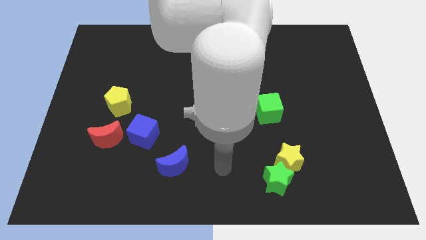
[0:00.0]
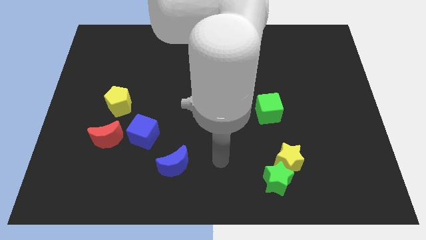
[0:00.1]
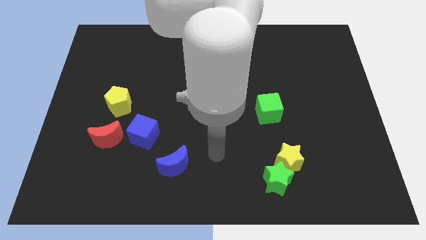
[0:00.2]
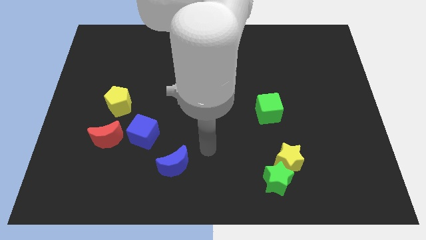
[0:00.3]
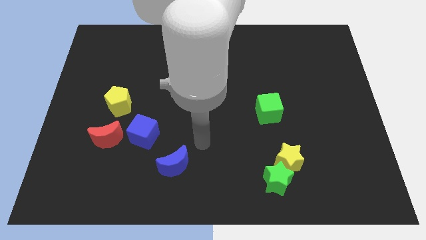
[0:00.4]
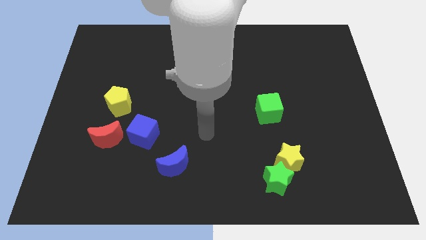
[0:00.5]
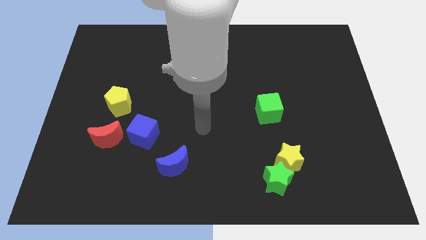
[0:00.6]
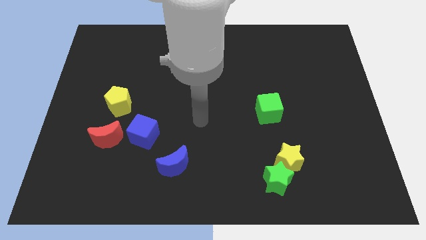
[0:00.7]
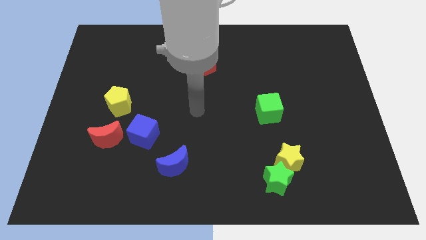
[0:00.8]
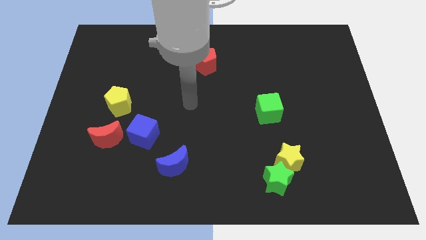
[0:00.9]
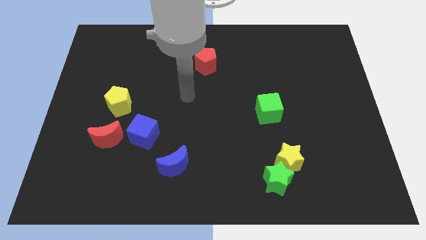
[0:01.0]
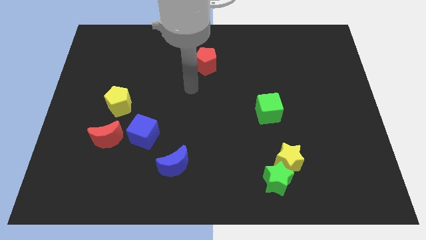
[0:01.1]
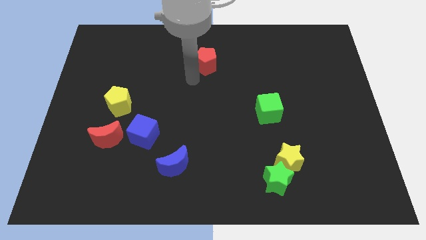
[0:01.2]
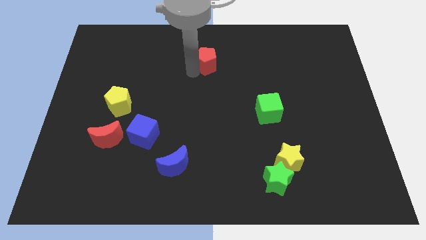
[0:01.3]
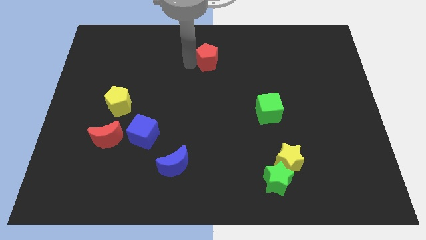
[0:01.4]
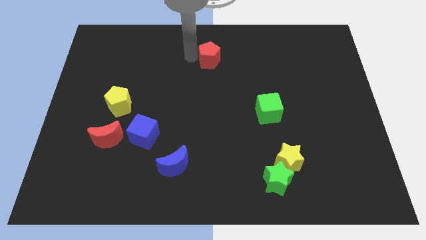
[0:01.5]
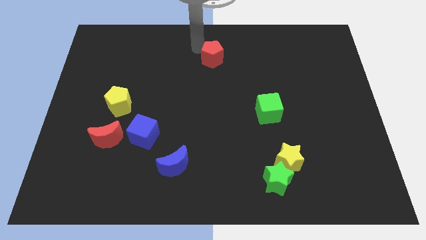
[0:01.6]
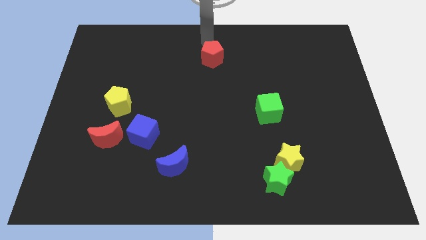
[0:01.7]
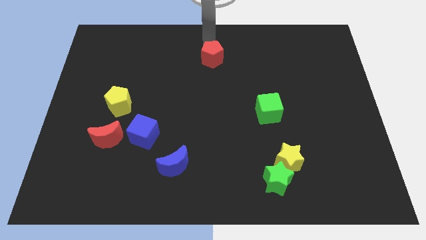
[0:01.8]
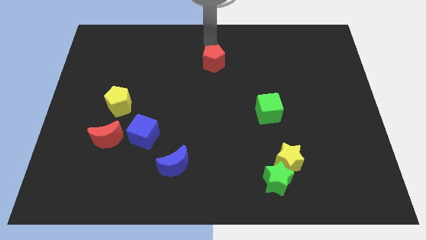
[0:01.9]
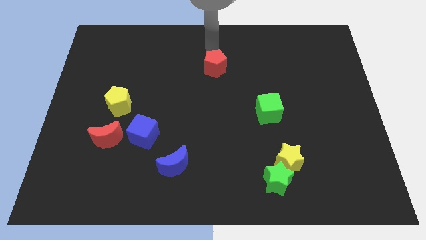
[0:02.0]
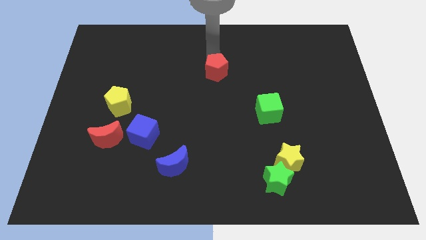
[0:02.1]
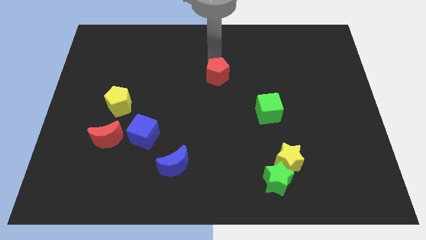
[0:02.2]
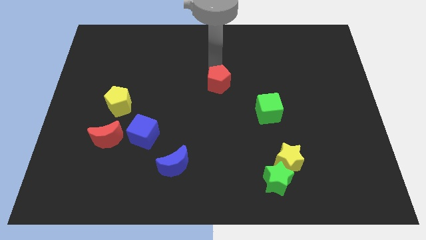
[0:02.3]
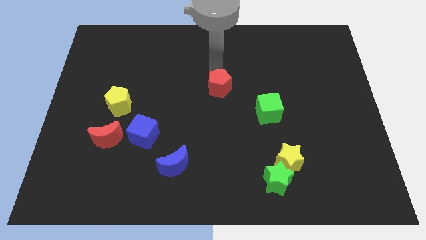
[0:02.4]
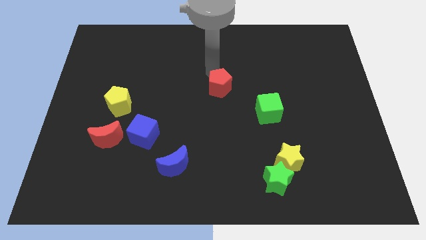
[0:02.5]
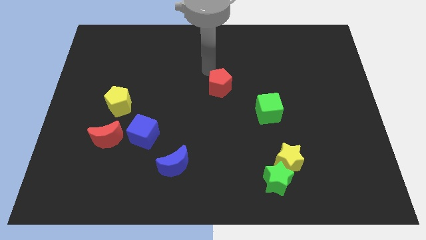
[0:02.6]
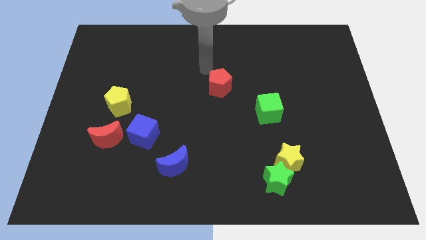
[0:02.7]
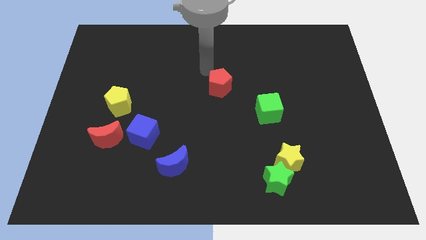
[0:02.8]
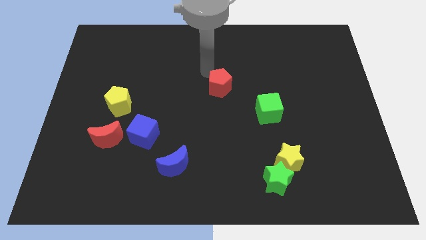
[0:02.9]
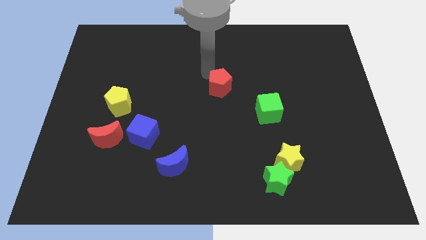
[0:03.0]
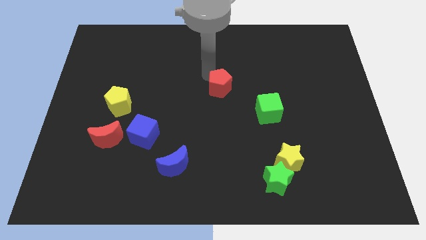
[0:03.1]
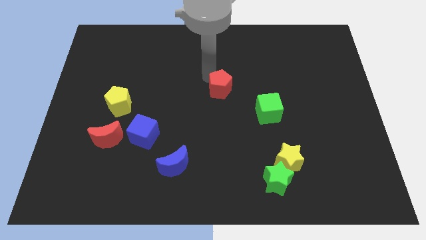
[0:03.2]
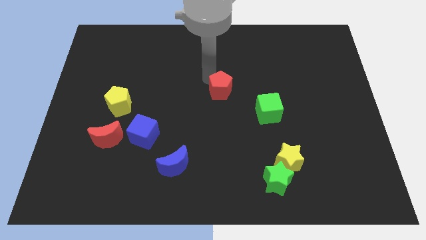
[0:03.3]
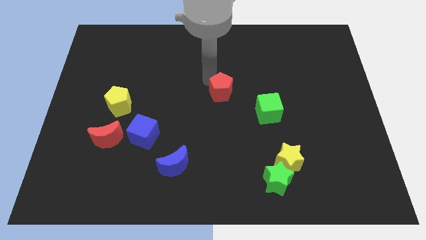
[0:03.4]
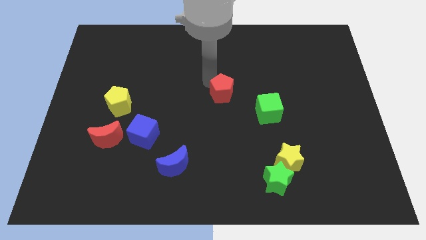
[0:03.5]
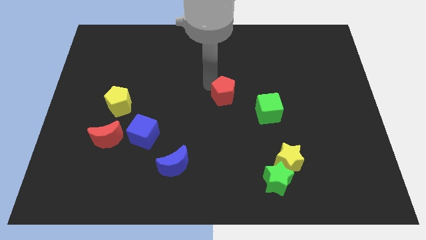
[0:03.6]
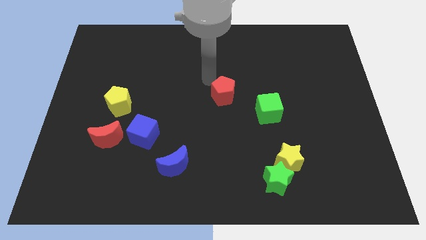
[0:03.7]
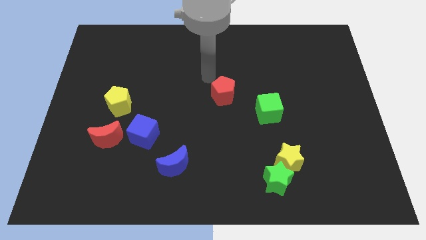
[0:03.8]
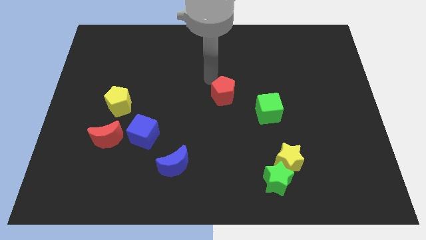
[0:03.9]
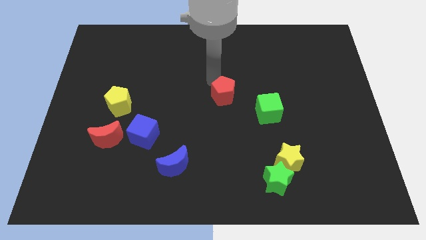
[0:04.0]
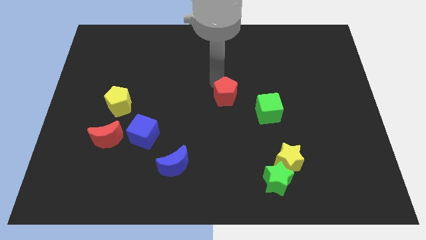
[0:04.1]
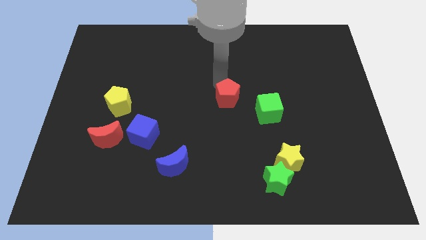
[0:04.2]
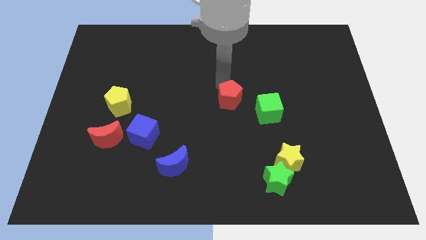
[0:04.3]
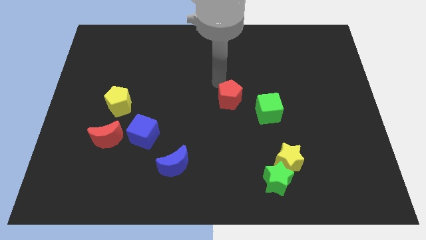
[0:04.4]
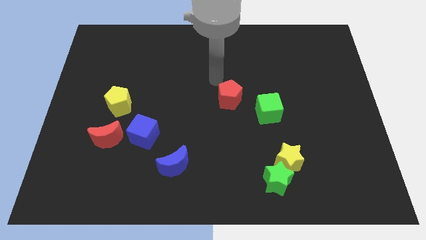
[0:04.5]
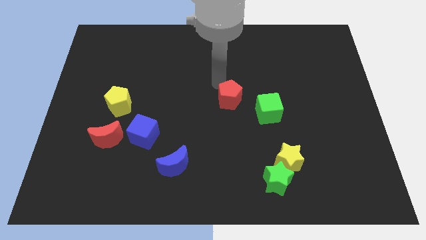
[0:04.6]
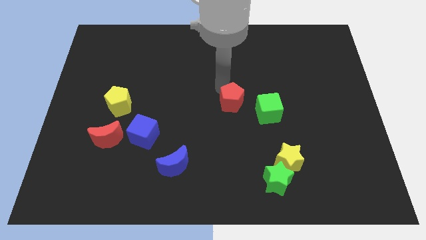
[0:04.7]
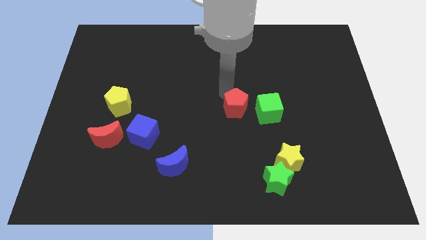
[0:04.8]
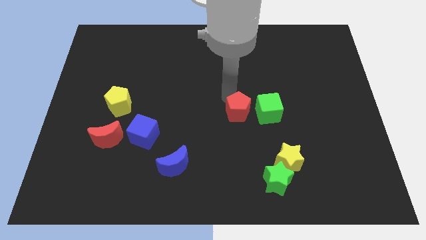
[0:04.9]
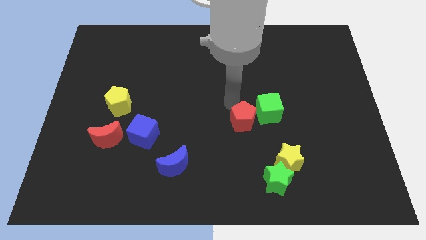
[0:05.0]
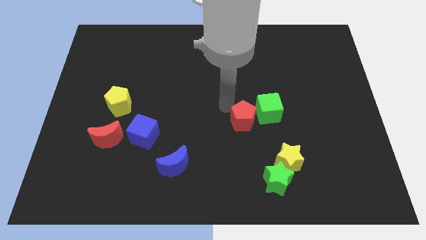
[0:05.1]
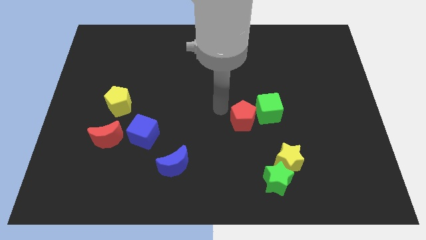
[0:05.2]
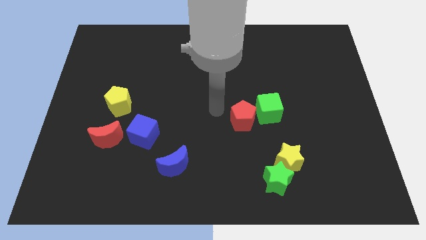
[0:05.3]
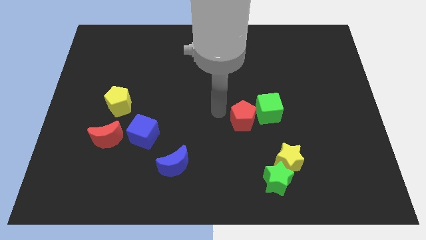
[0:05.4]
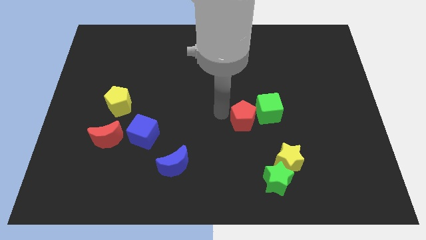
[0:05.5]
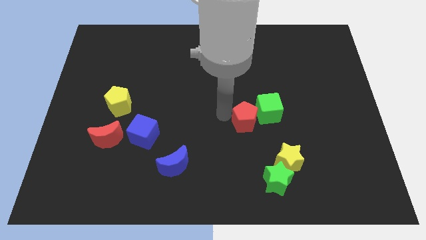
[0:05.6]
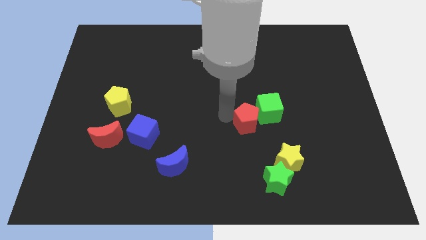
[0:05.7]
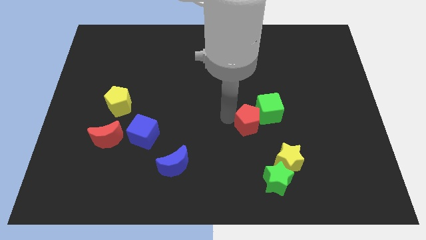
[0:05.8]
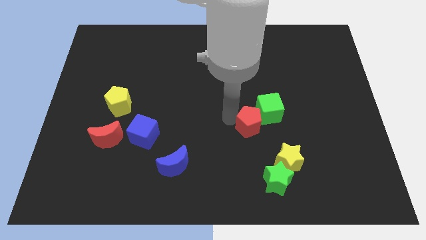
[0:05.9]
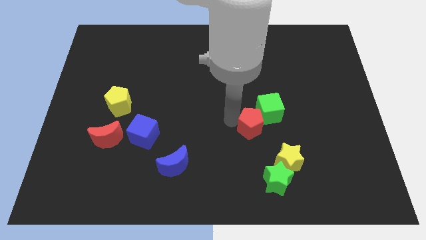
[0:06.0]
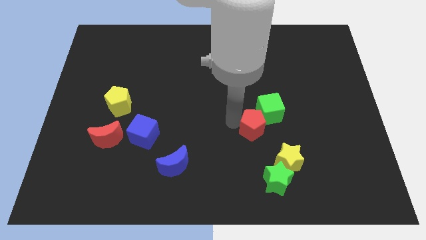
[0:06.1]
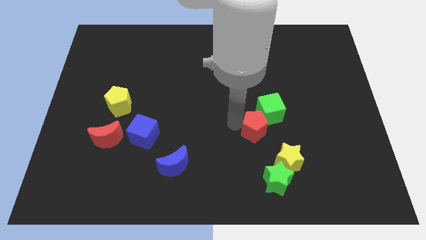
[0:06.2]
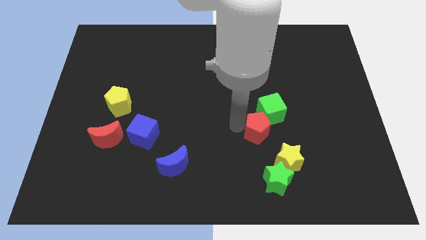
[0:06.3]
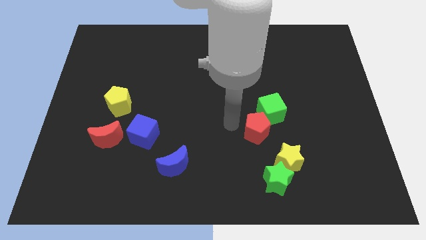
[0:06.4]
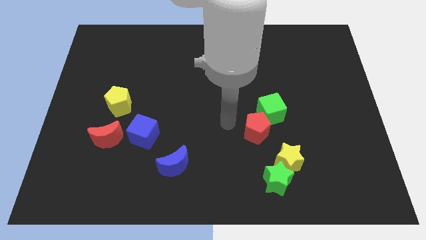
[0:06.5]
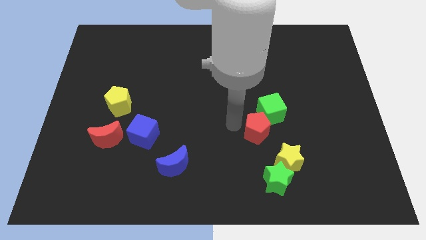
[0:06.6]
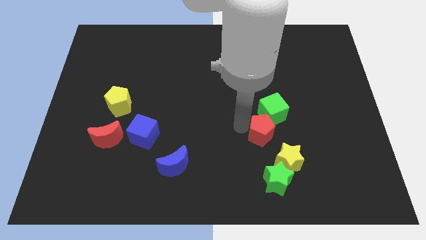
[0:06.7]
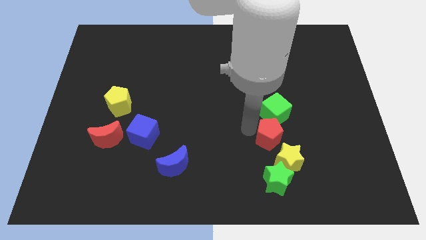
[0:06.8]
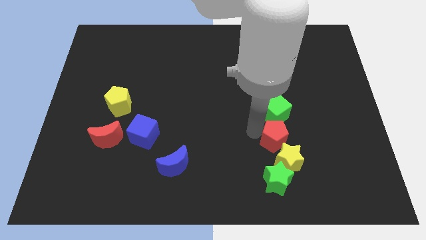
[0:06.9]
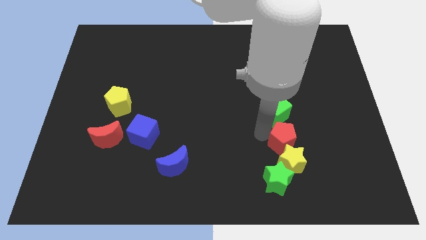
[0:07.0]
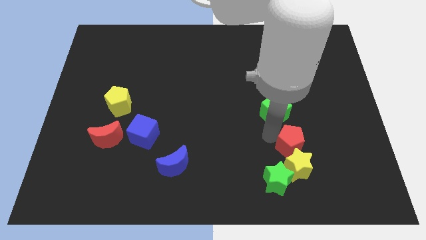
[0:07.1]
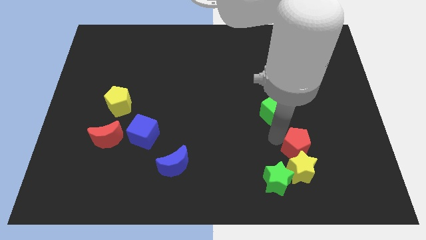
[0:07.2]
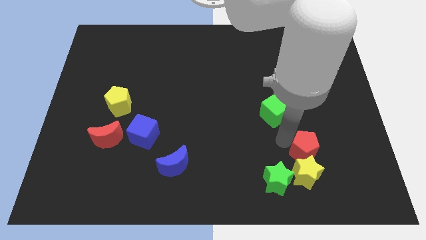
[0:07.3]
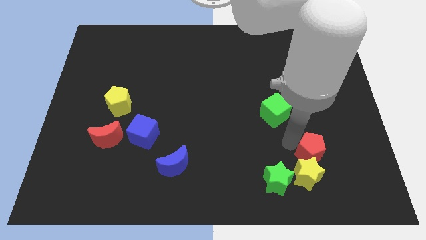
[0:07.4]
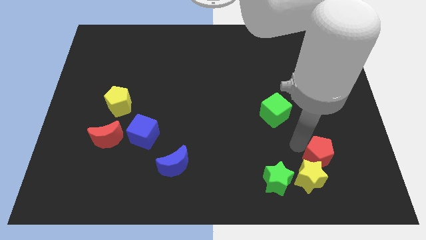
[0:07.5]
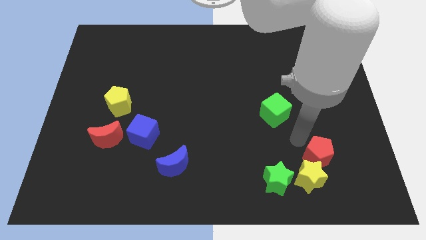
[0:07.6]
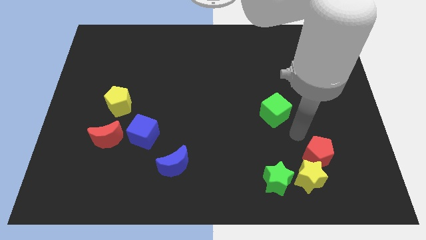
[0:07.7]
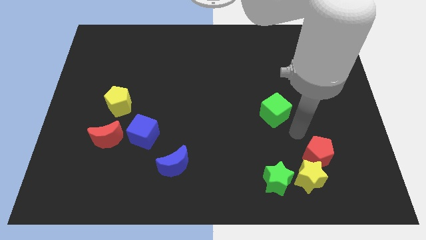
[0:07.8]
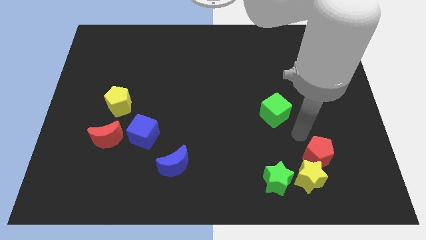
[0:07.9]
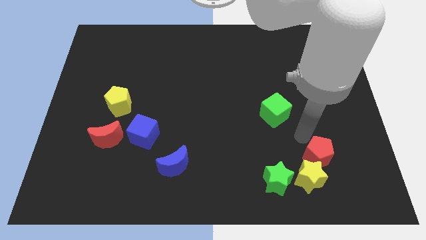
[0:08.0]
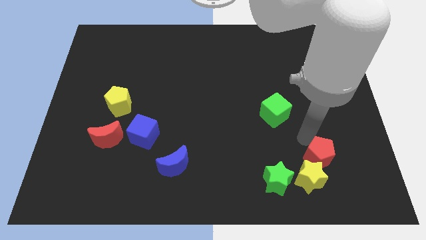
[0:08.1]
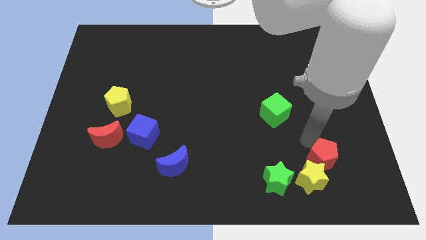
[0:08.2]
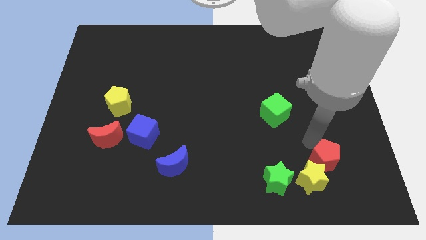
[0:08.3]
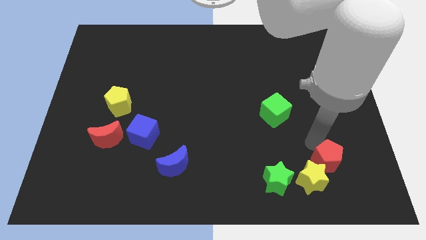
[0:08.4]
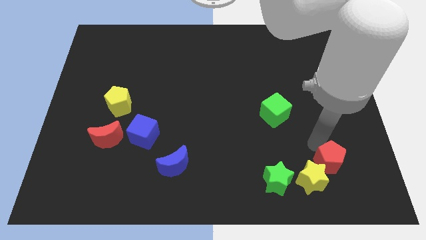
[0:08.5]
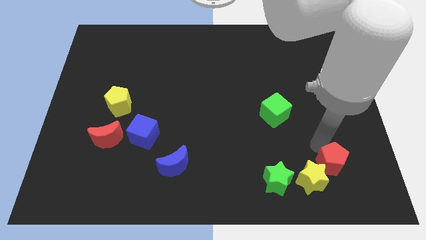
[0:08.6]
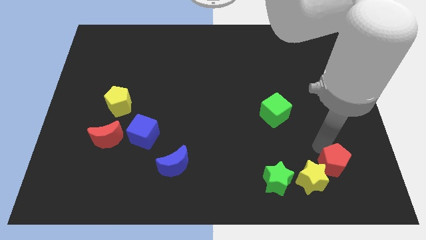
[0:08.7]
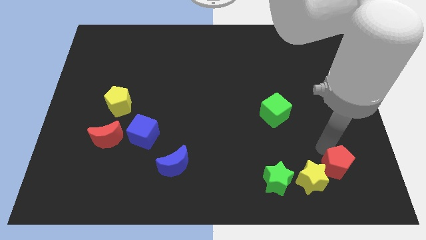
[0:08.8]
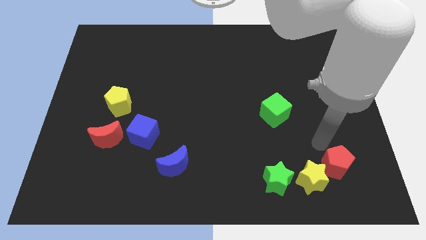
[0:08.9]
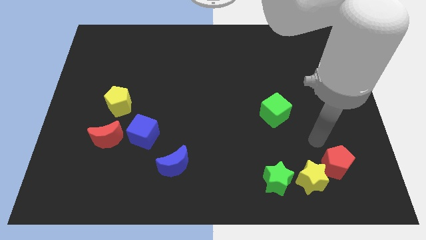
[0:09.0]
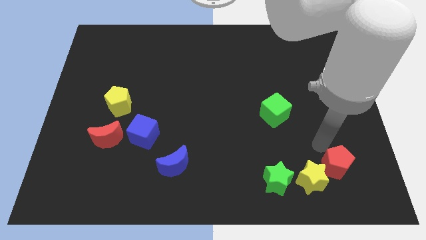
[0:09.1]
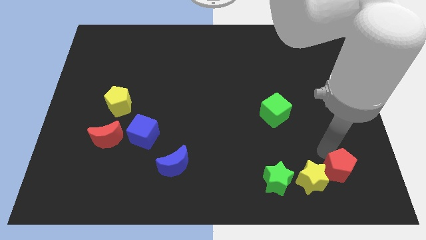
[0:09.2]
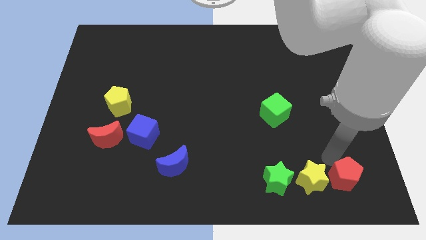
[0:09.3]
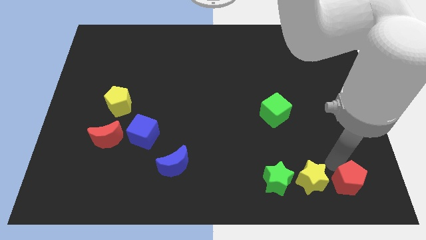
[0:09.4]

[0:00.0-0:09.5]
push the red pentagon to the bottom right corner
